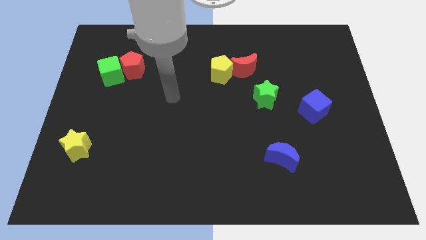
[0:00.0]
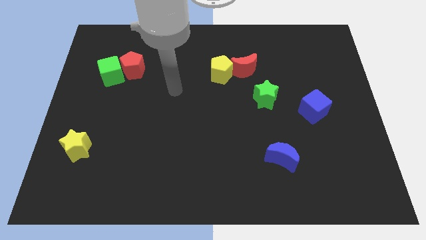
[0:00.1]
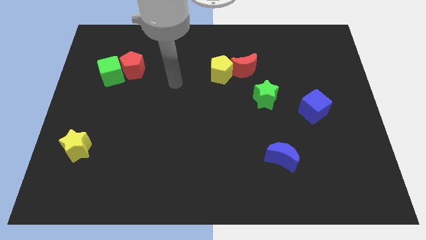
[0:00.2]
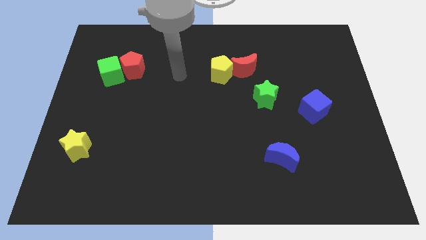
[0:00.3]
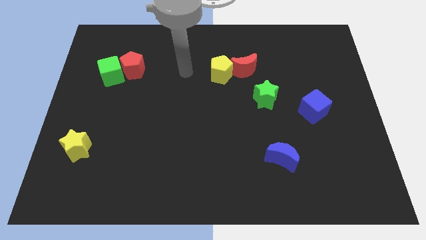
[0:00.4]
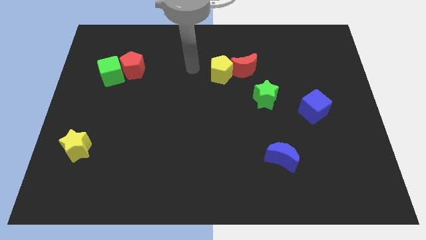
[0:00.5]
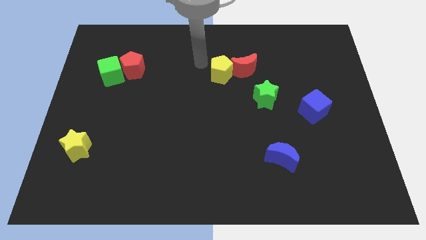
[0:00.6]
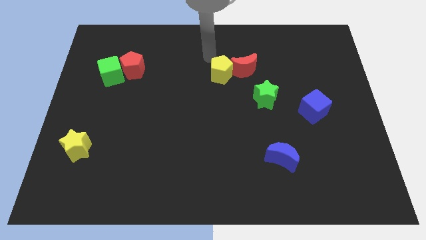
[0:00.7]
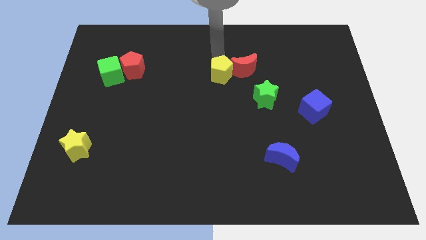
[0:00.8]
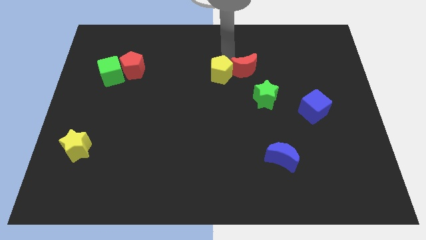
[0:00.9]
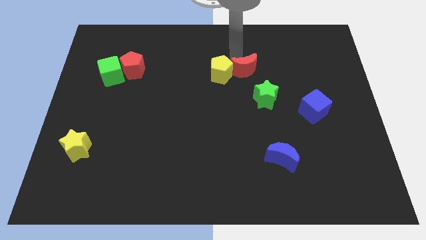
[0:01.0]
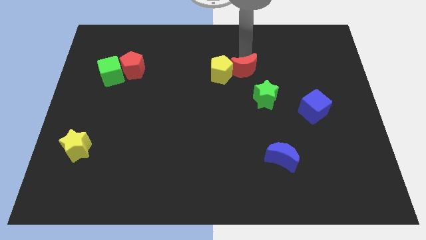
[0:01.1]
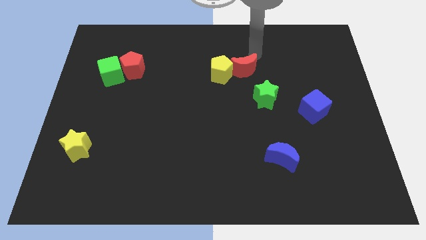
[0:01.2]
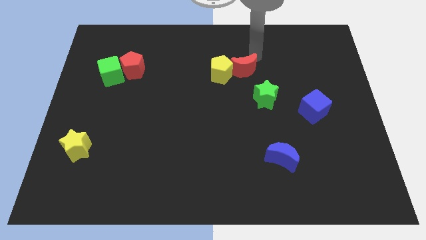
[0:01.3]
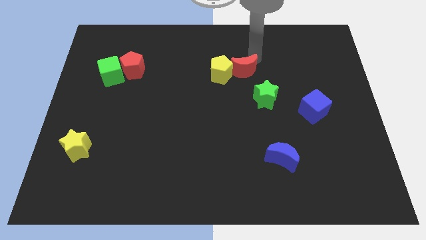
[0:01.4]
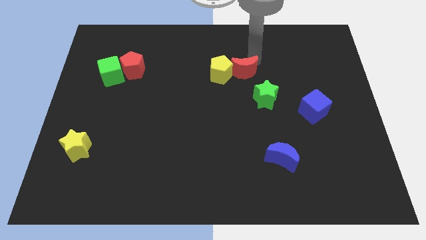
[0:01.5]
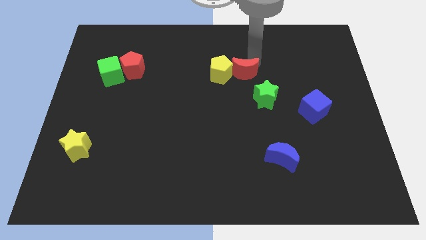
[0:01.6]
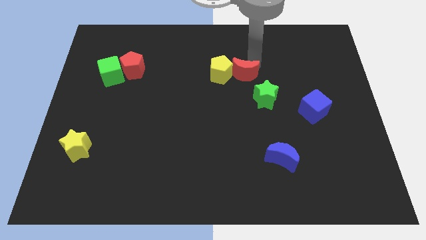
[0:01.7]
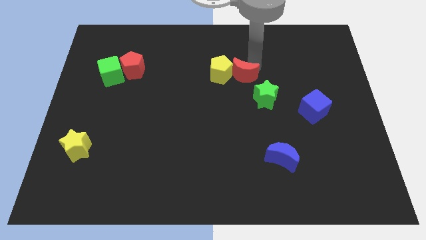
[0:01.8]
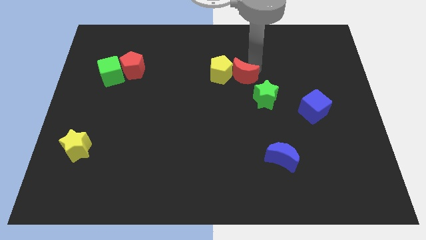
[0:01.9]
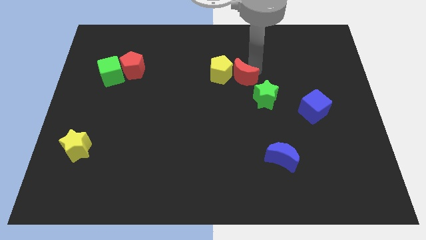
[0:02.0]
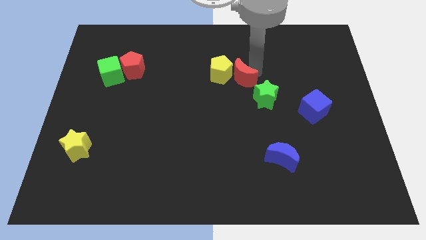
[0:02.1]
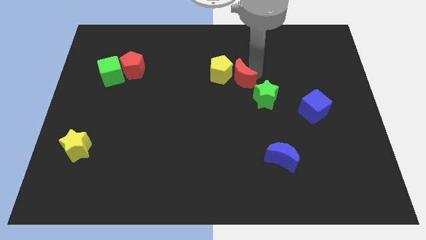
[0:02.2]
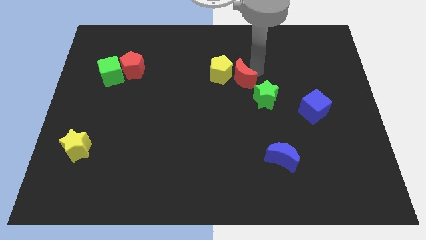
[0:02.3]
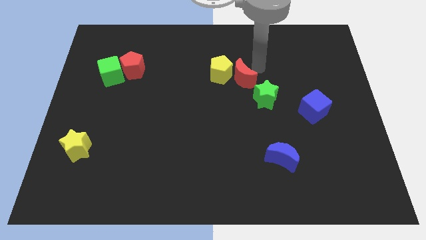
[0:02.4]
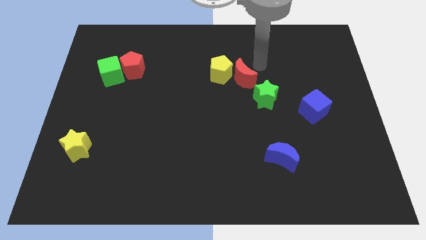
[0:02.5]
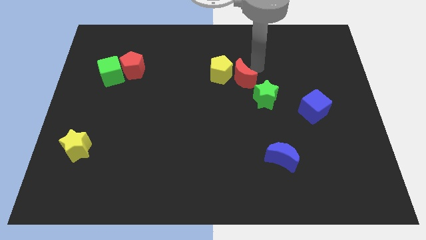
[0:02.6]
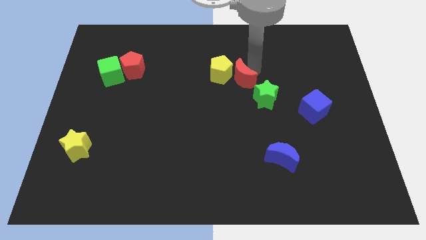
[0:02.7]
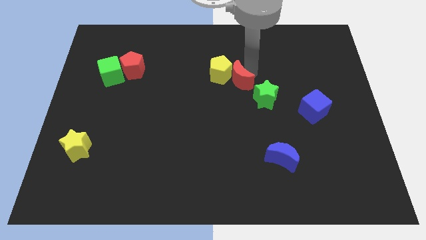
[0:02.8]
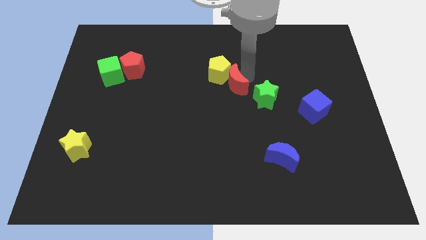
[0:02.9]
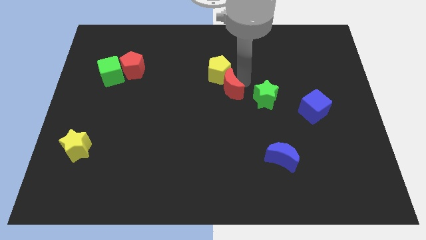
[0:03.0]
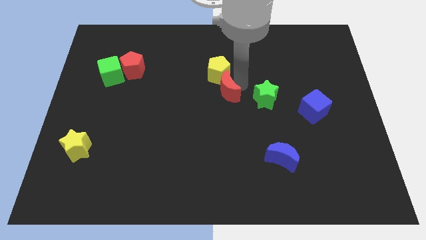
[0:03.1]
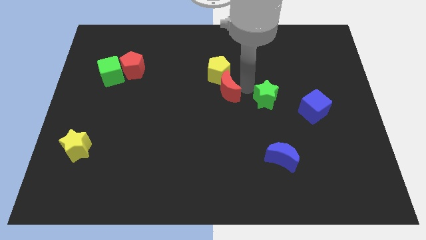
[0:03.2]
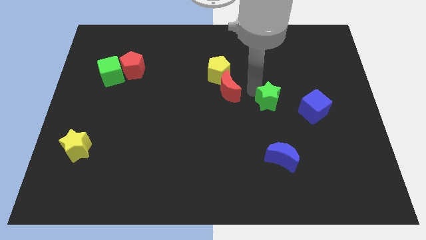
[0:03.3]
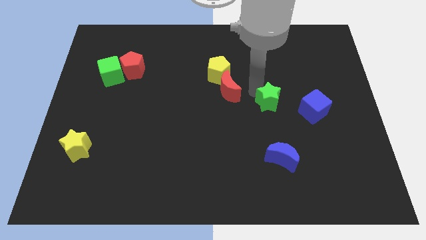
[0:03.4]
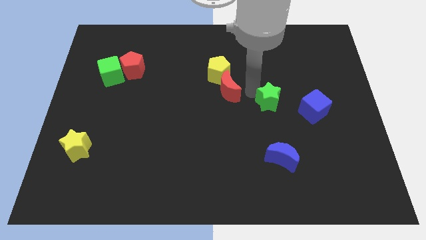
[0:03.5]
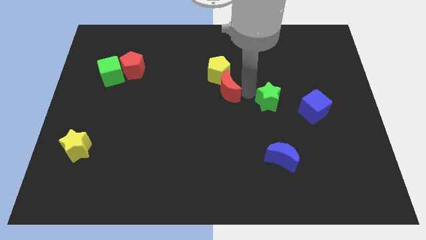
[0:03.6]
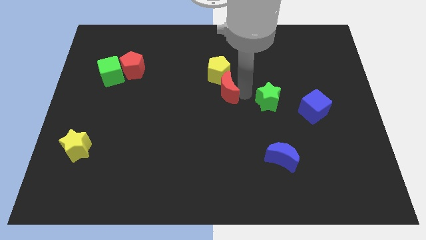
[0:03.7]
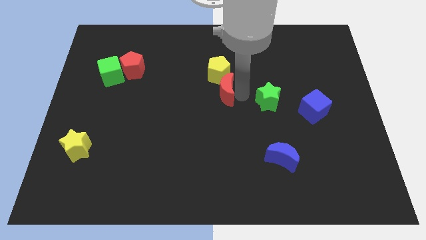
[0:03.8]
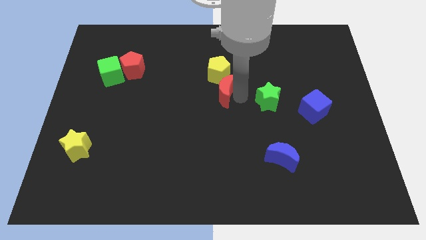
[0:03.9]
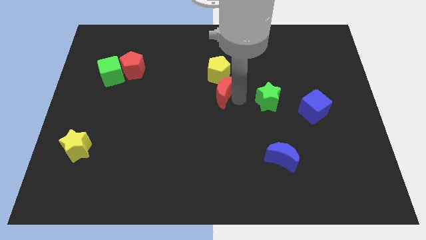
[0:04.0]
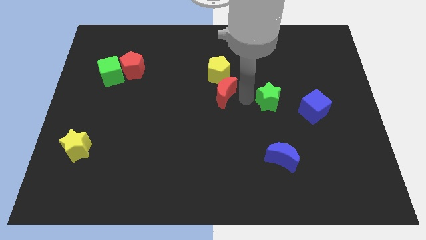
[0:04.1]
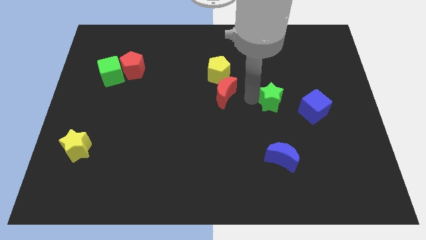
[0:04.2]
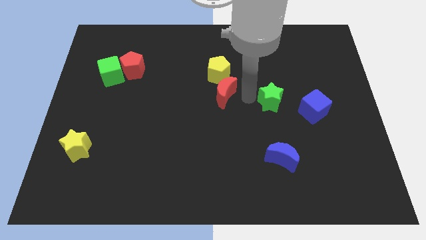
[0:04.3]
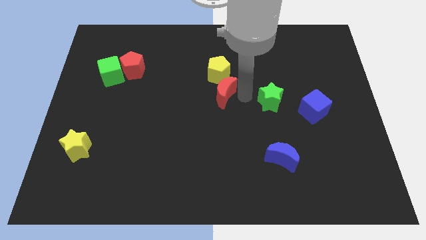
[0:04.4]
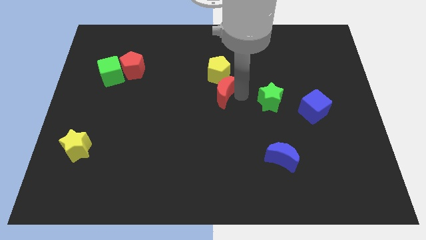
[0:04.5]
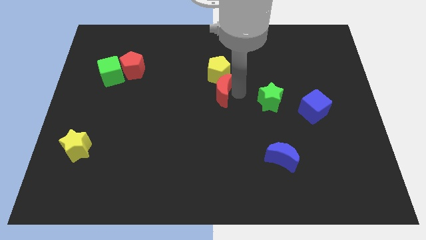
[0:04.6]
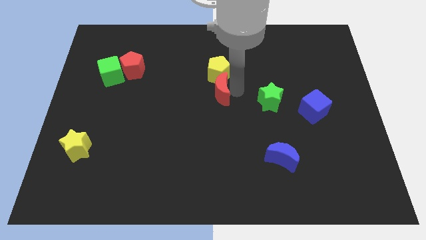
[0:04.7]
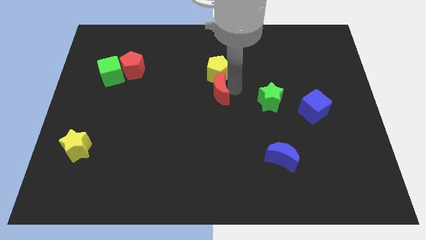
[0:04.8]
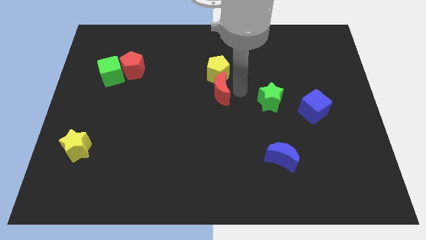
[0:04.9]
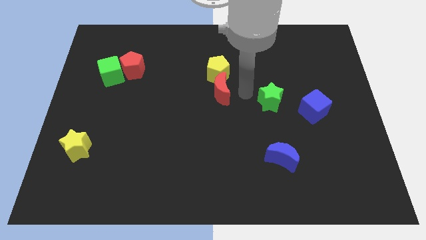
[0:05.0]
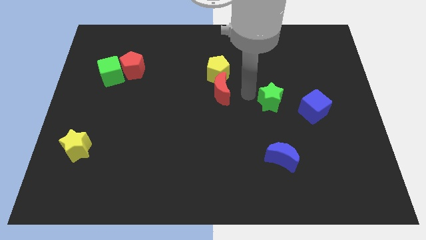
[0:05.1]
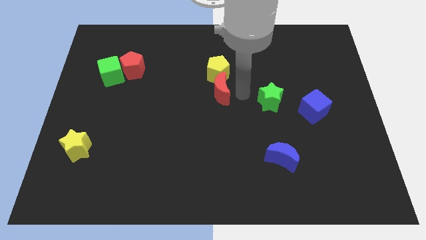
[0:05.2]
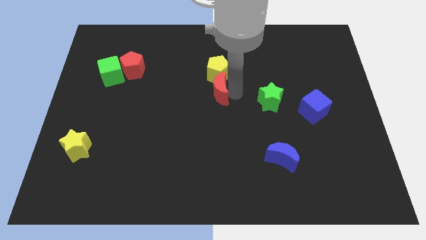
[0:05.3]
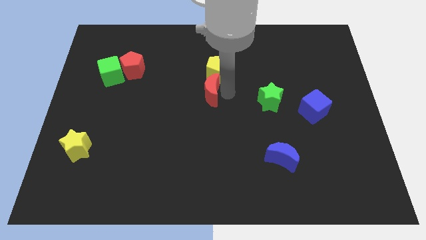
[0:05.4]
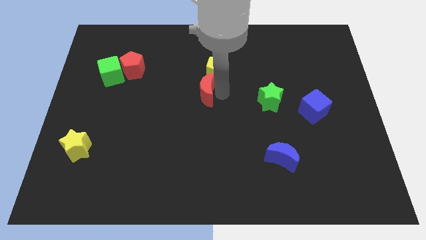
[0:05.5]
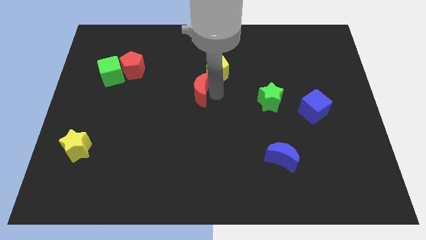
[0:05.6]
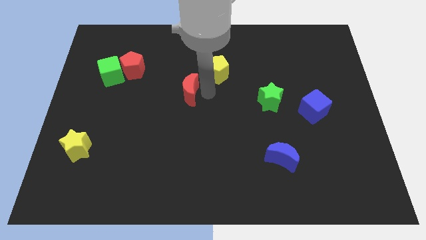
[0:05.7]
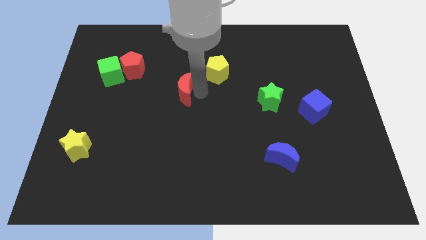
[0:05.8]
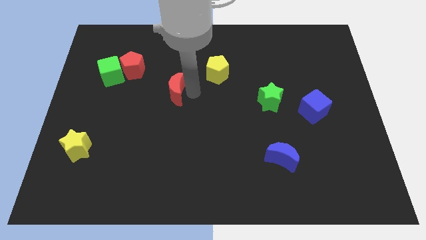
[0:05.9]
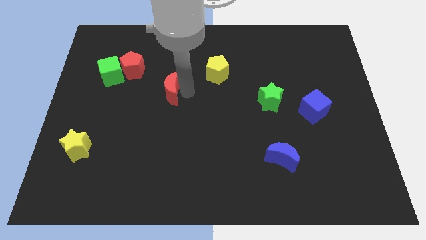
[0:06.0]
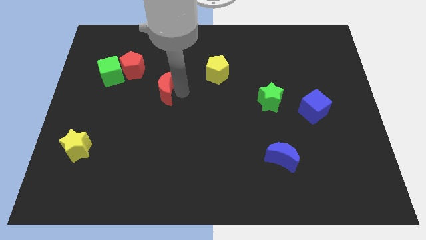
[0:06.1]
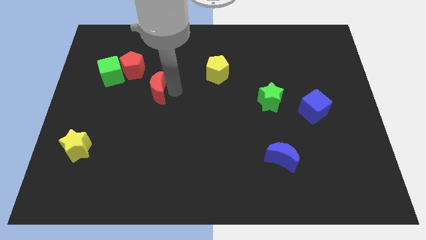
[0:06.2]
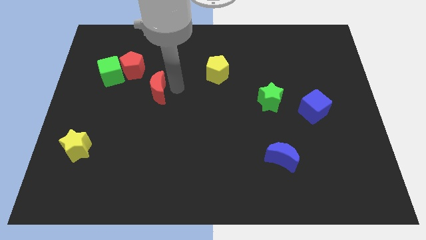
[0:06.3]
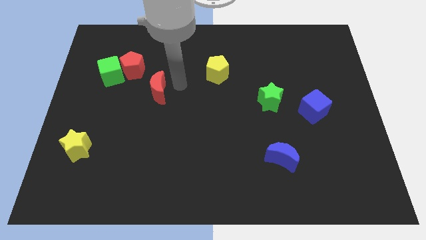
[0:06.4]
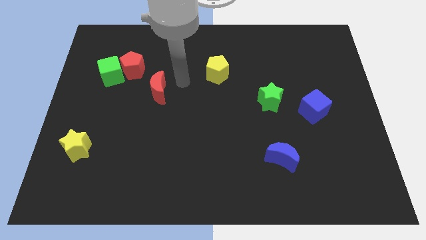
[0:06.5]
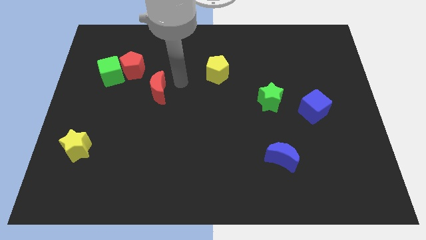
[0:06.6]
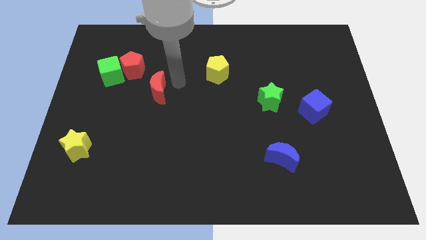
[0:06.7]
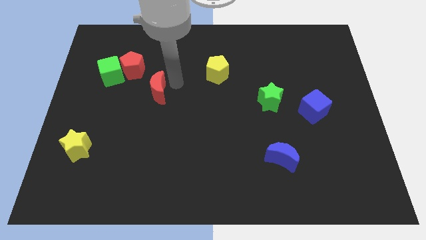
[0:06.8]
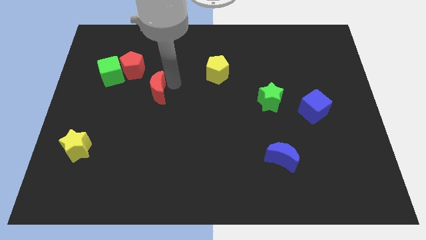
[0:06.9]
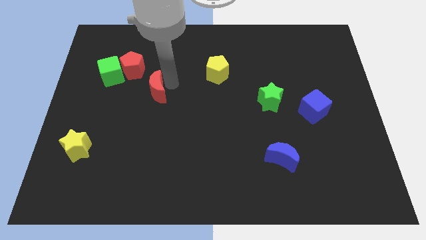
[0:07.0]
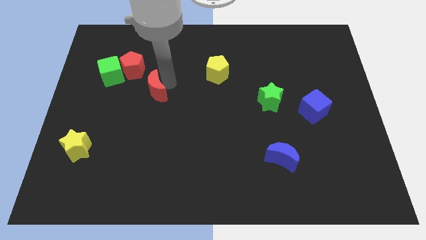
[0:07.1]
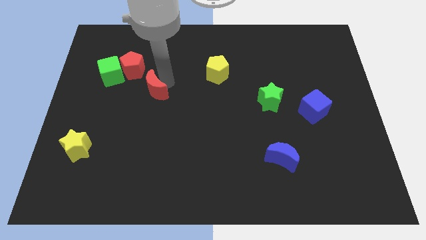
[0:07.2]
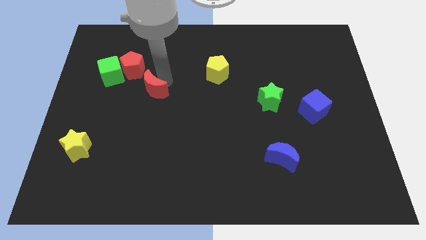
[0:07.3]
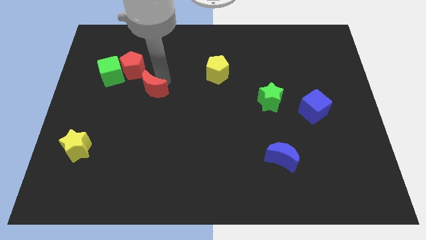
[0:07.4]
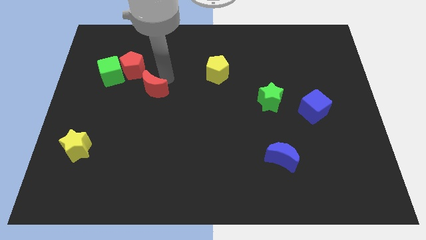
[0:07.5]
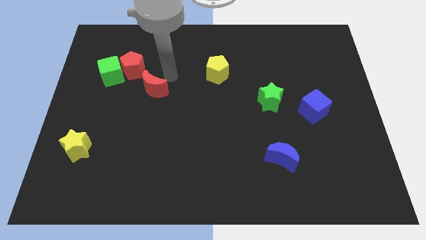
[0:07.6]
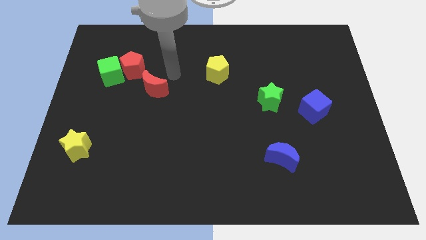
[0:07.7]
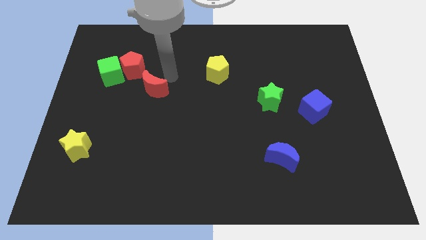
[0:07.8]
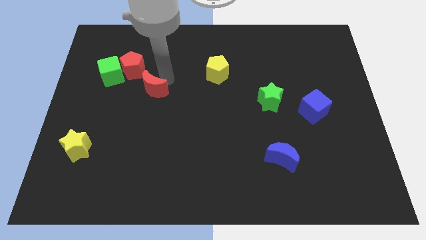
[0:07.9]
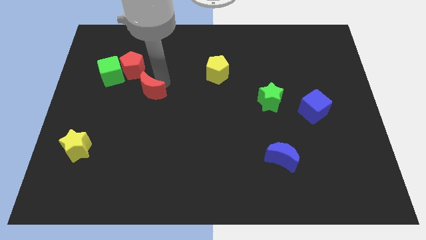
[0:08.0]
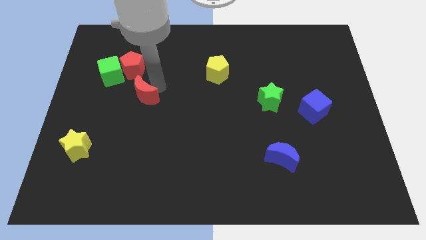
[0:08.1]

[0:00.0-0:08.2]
slide the red moon to the bottom side of the red pentagon
